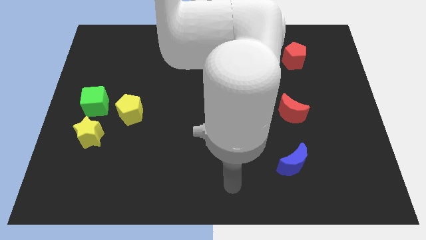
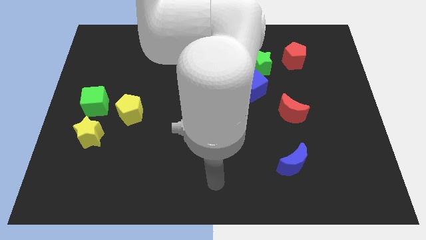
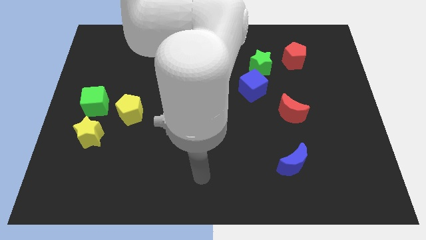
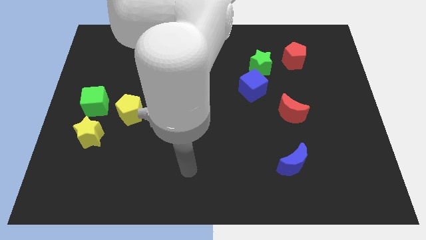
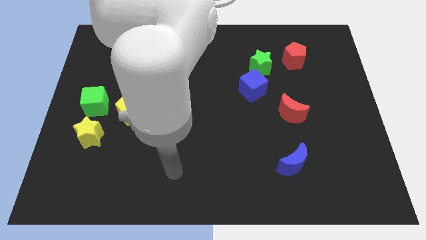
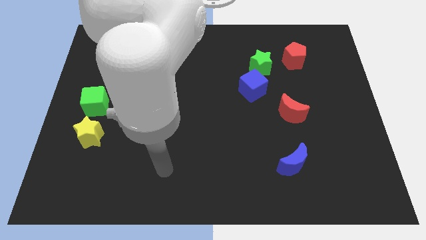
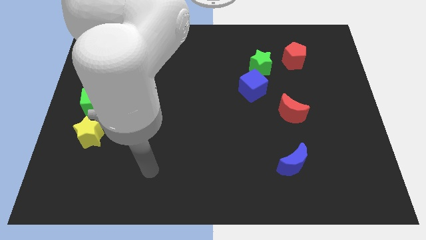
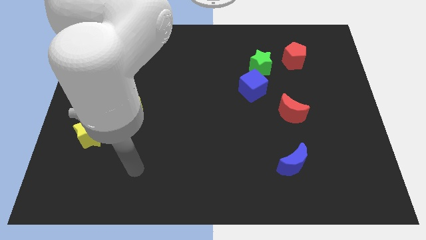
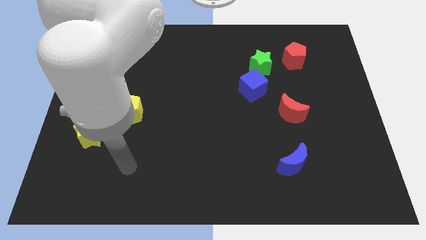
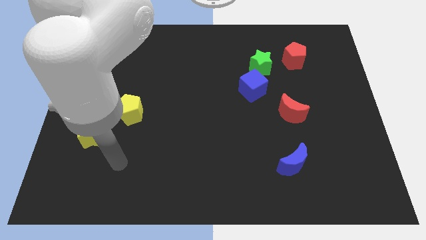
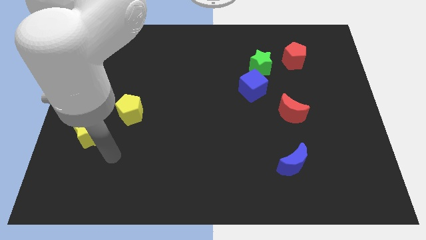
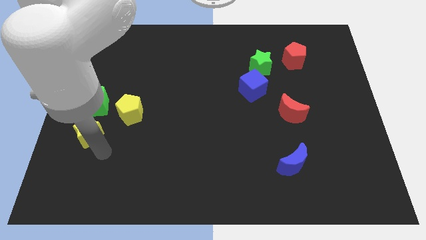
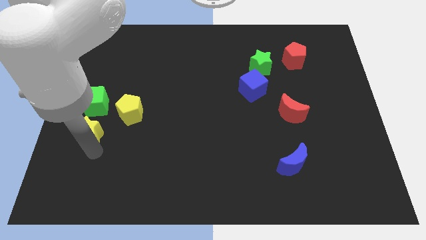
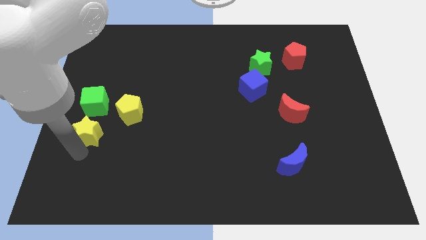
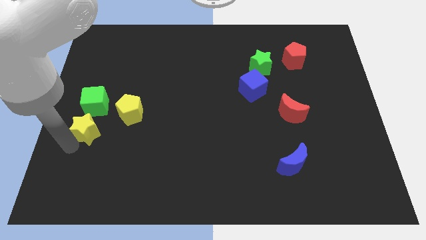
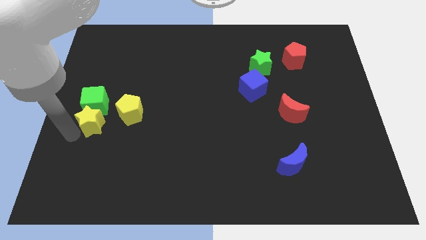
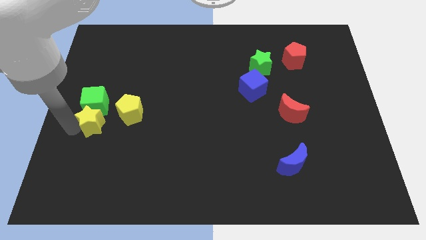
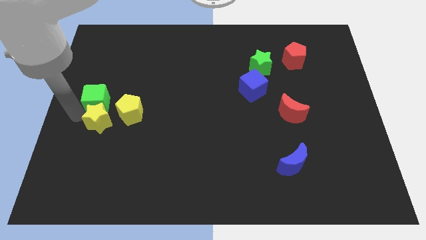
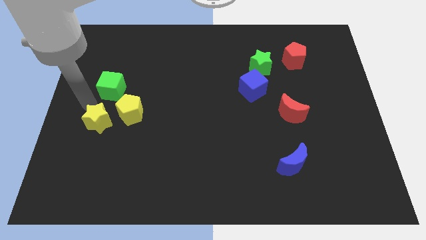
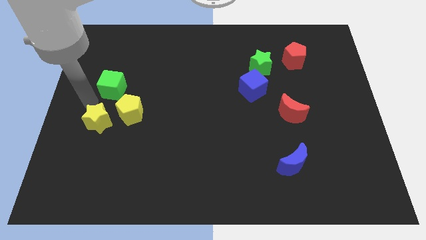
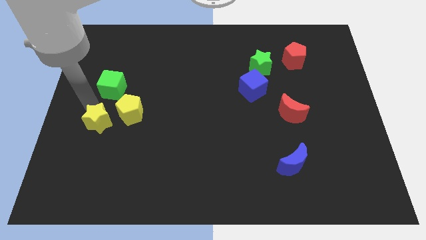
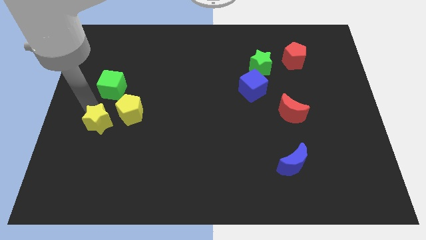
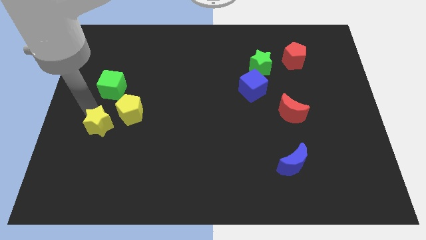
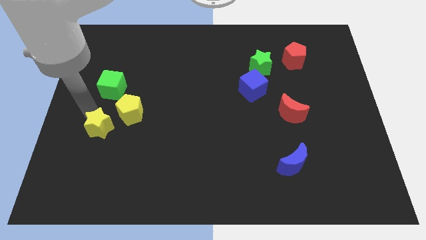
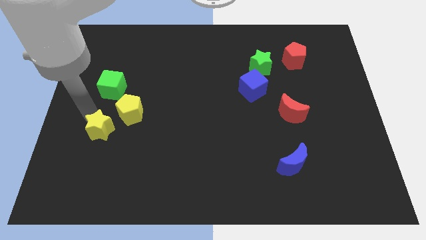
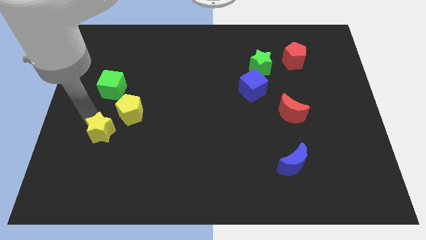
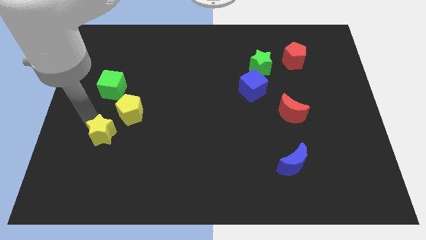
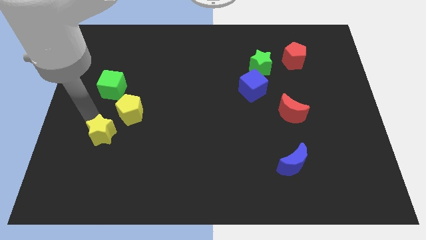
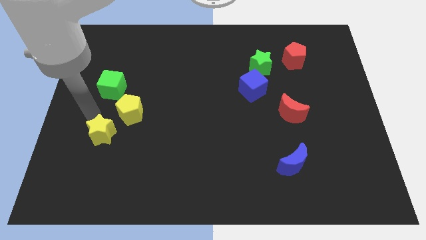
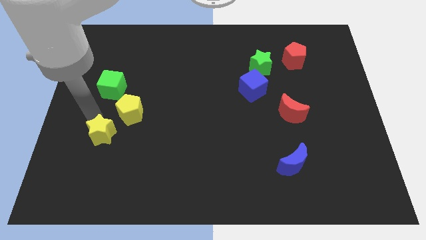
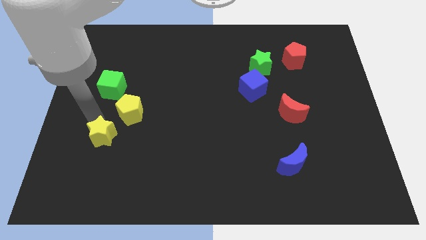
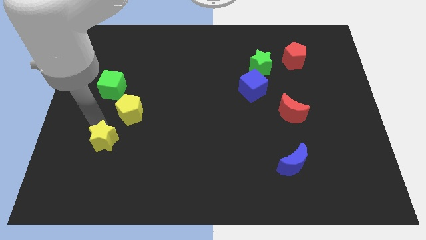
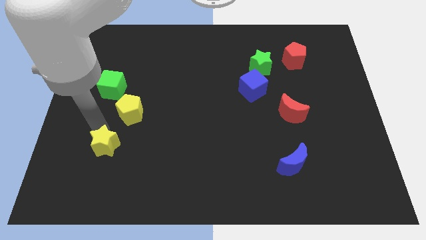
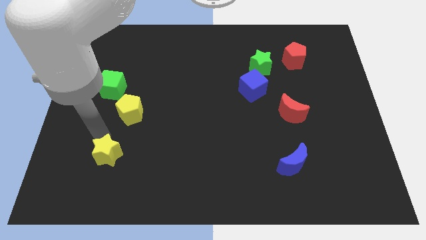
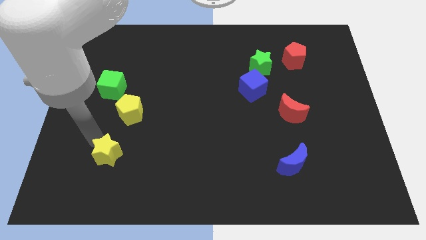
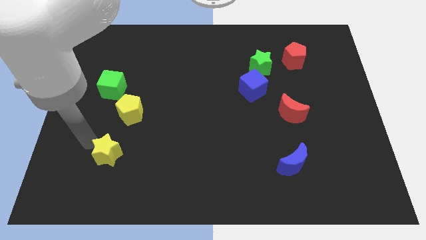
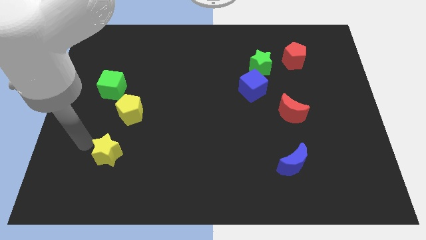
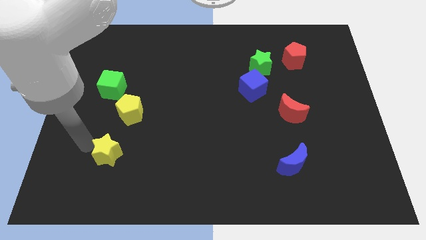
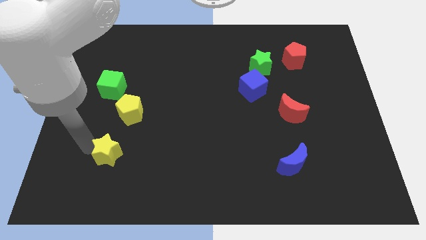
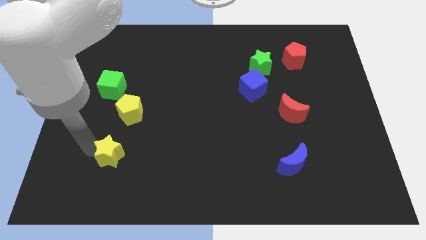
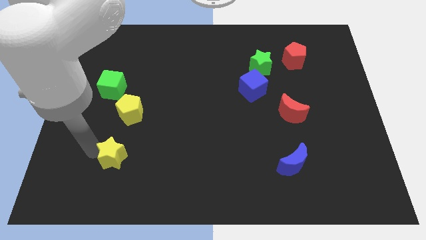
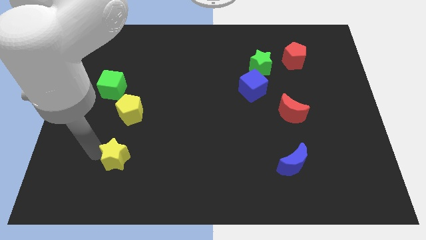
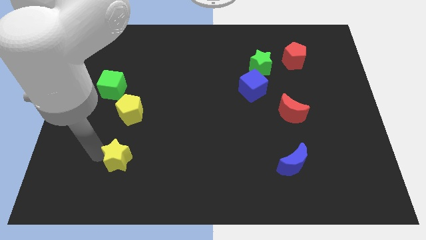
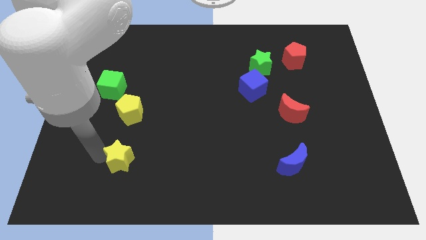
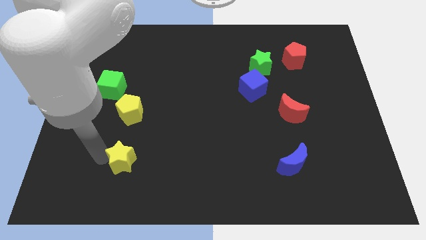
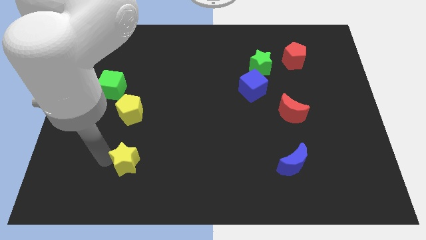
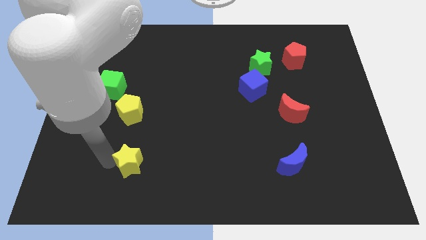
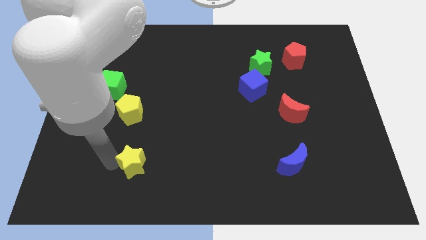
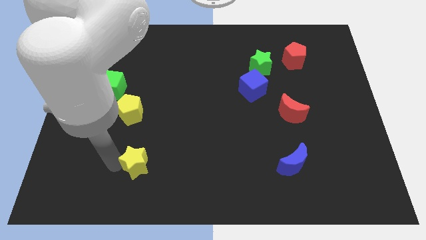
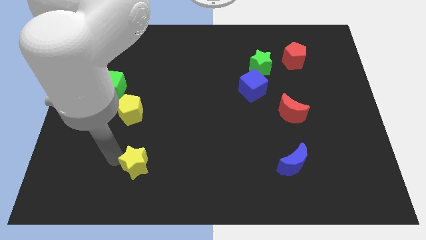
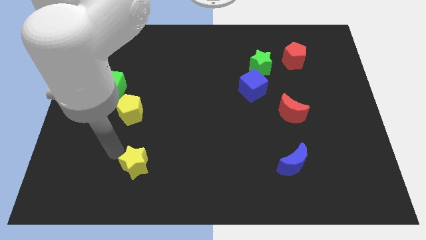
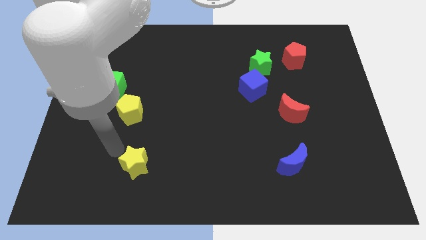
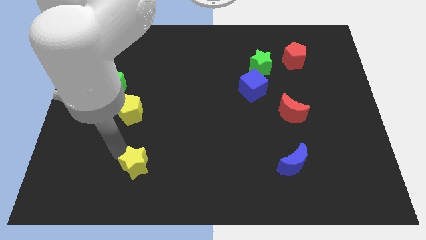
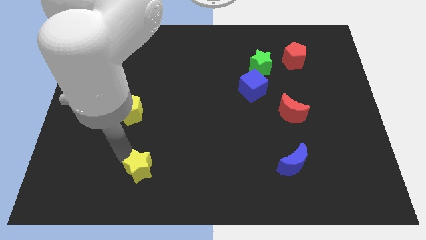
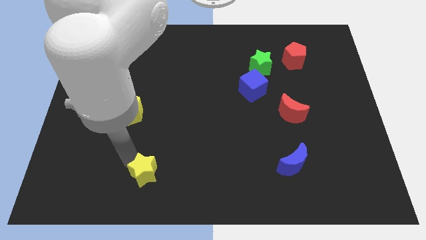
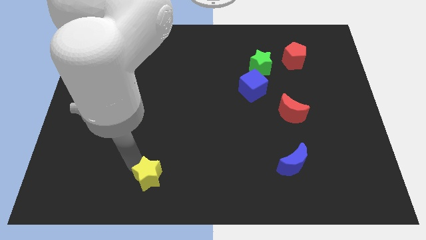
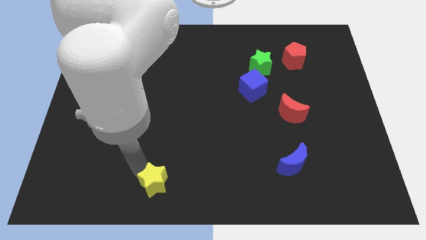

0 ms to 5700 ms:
move the yellow star to the bottom

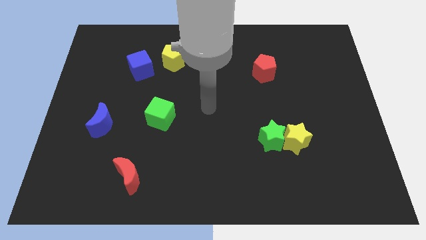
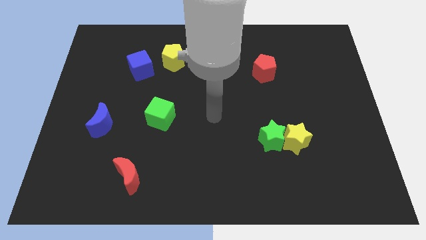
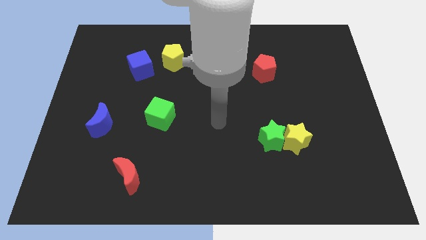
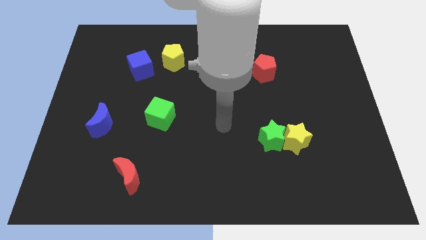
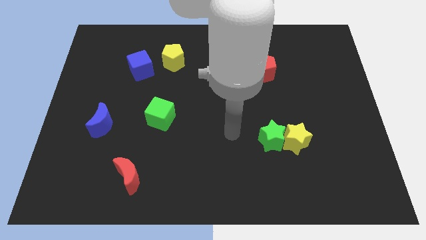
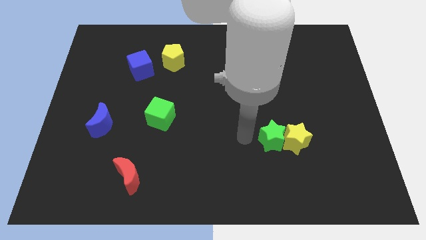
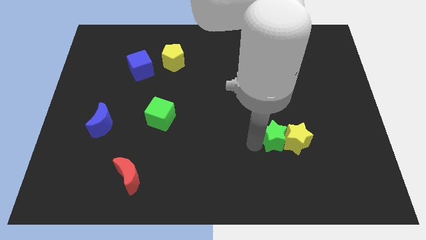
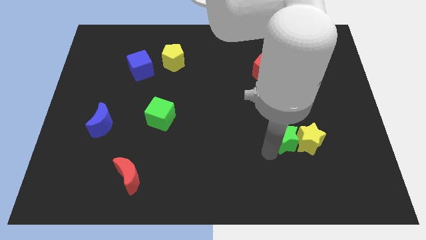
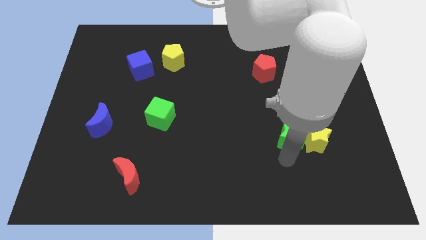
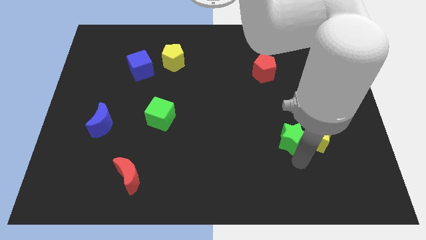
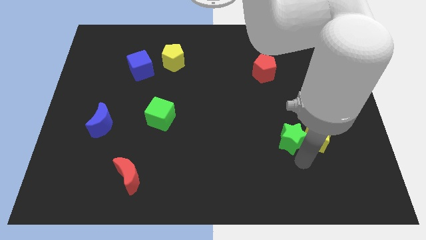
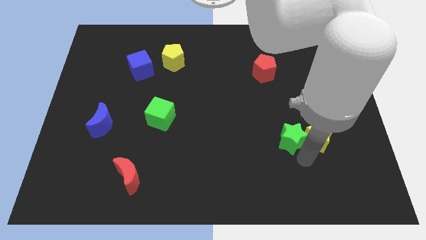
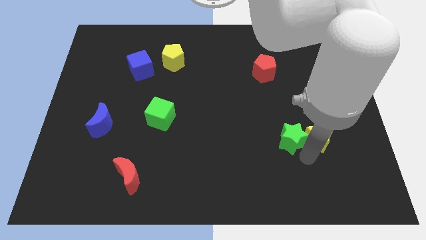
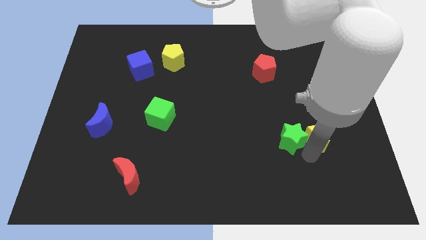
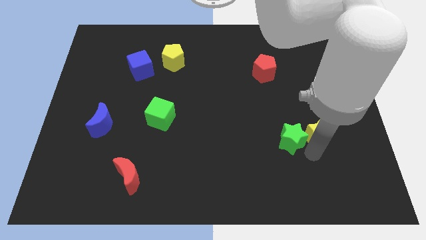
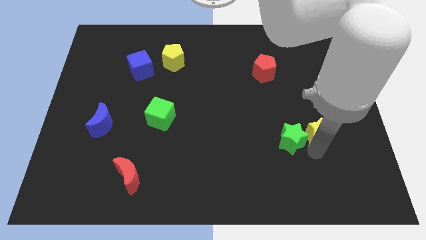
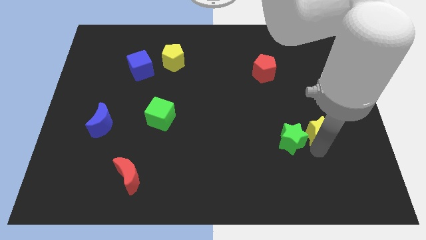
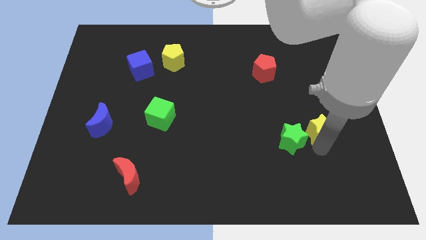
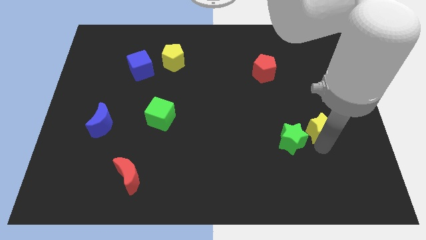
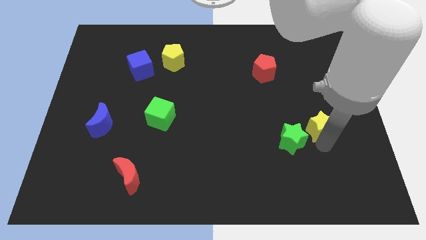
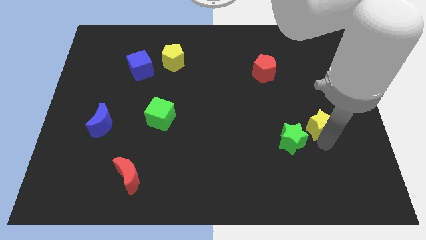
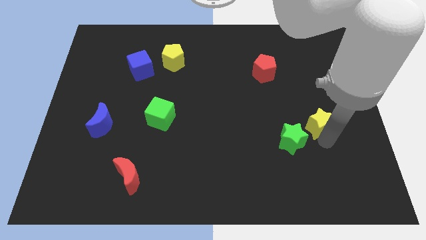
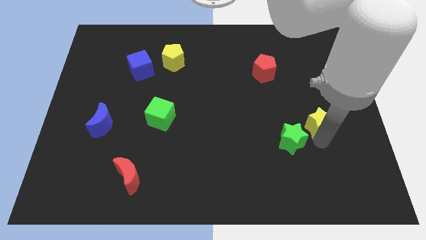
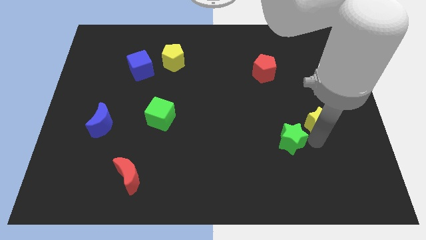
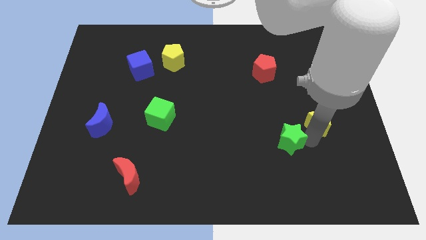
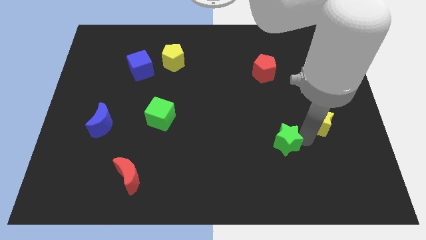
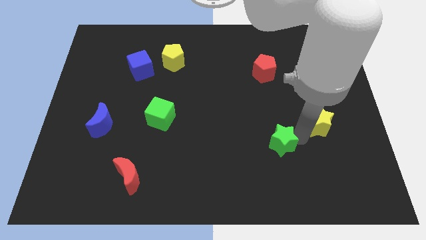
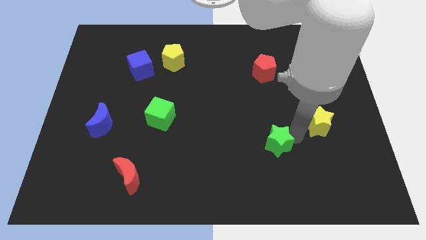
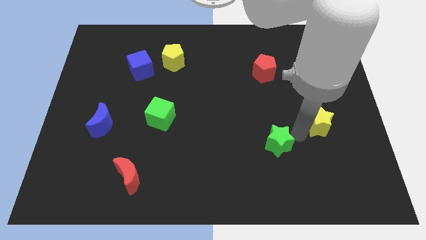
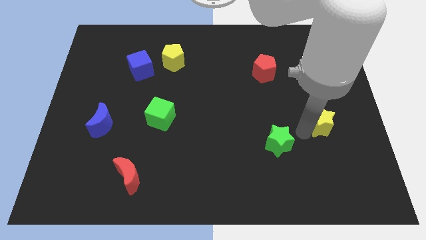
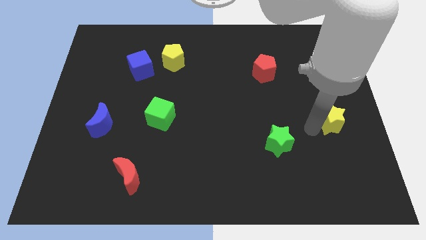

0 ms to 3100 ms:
slide the yellow star to the right side
